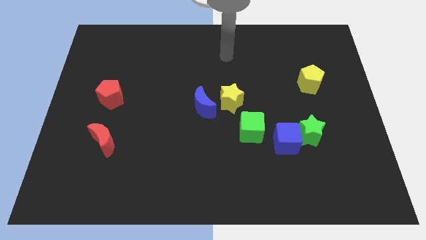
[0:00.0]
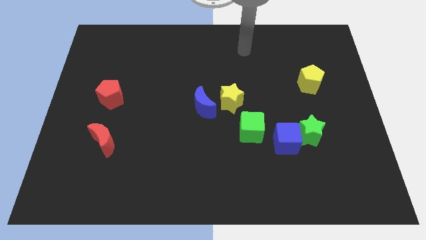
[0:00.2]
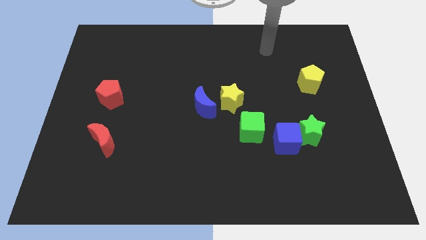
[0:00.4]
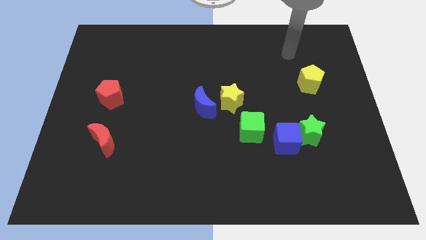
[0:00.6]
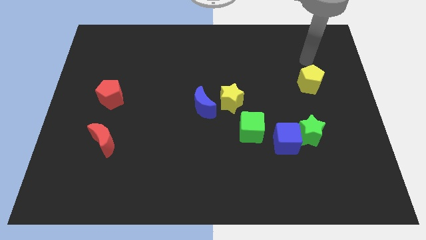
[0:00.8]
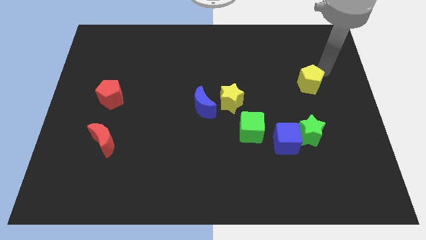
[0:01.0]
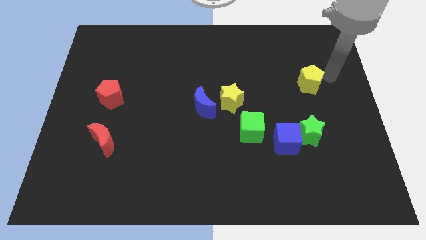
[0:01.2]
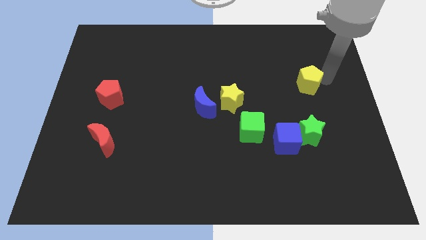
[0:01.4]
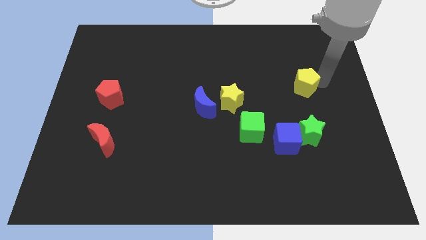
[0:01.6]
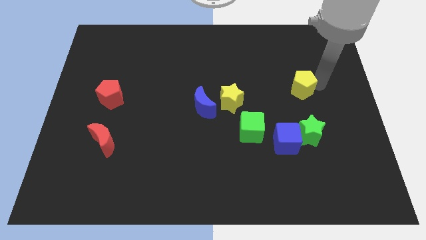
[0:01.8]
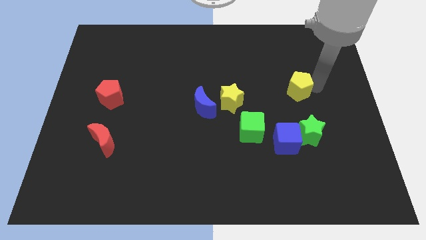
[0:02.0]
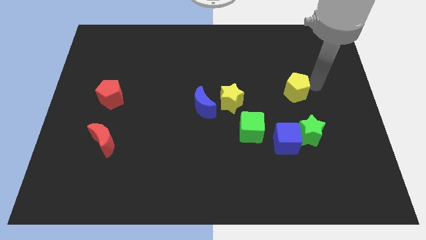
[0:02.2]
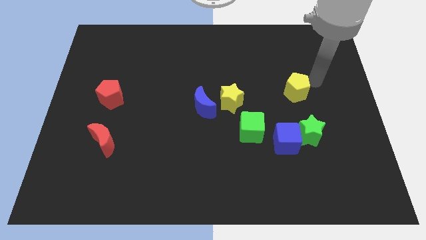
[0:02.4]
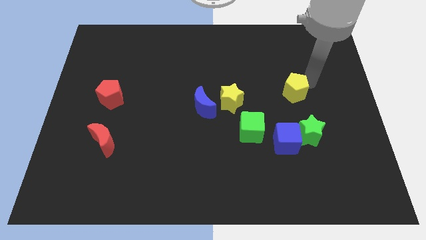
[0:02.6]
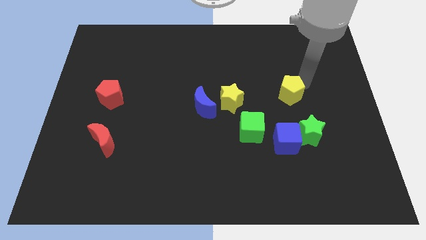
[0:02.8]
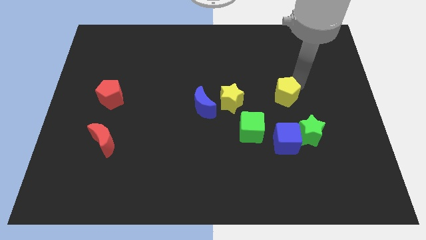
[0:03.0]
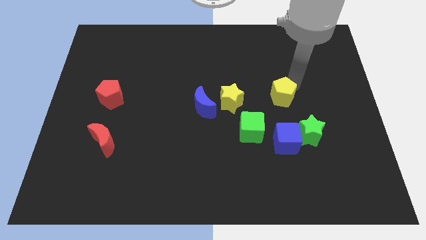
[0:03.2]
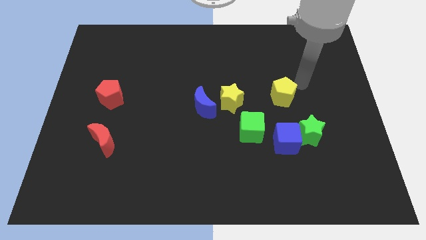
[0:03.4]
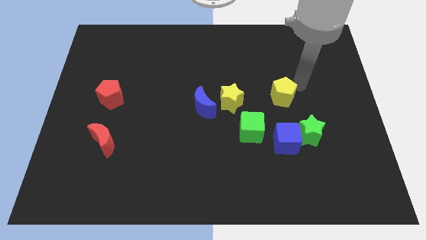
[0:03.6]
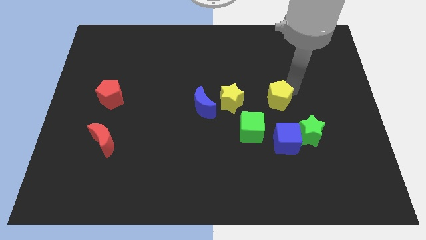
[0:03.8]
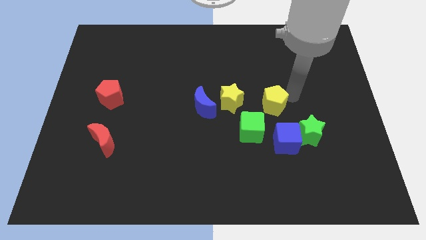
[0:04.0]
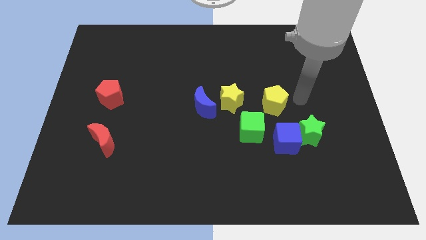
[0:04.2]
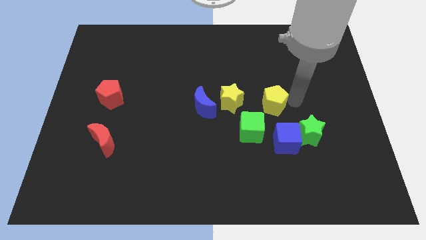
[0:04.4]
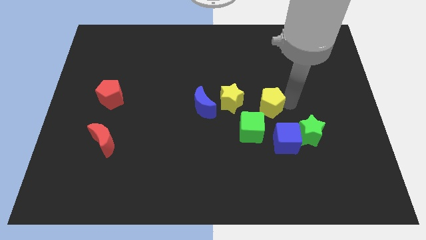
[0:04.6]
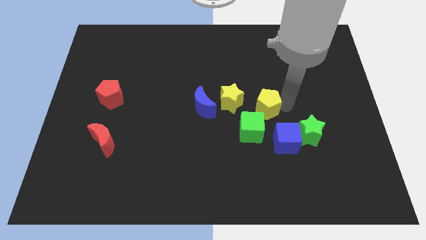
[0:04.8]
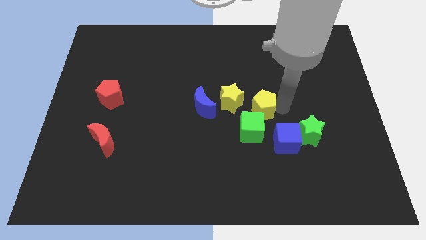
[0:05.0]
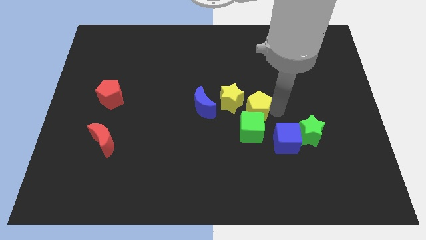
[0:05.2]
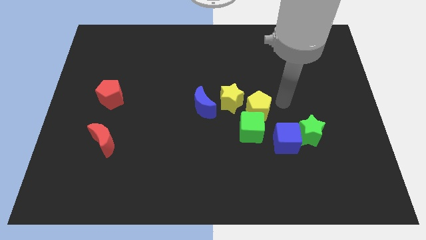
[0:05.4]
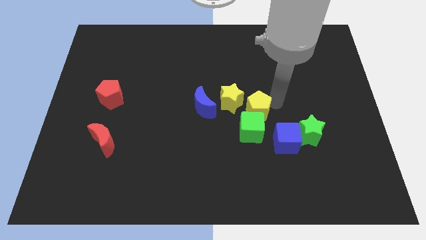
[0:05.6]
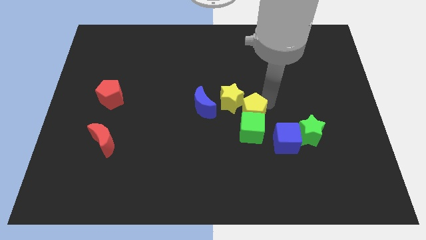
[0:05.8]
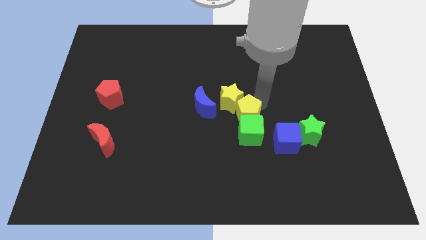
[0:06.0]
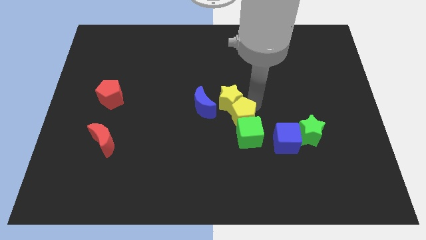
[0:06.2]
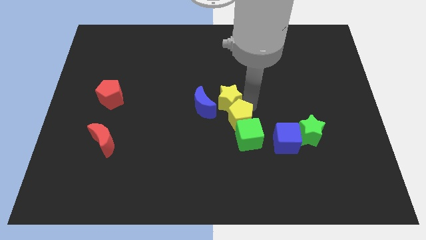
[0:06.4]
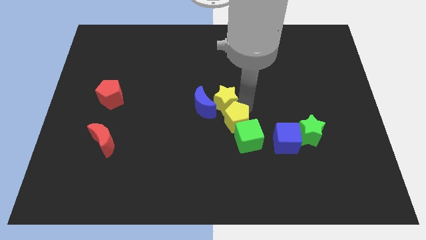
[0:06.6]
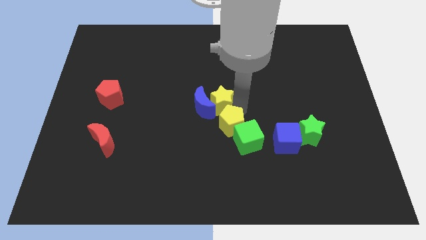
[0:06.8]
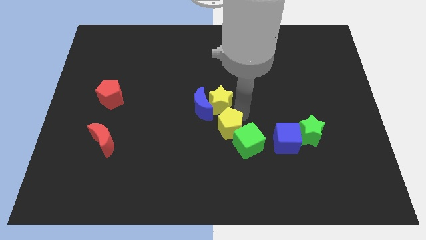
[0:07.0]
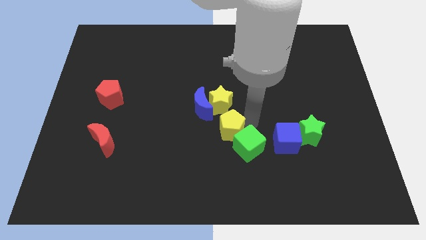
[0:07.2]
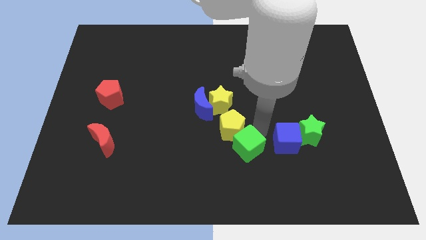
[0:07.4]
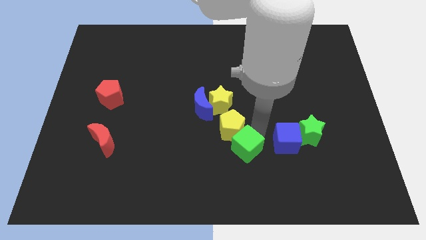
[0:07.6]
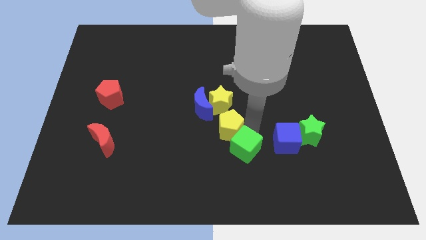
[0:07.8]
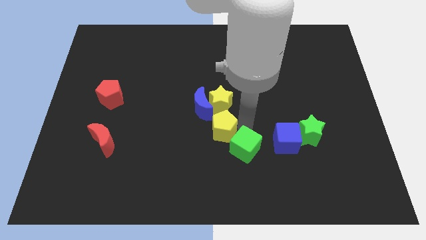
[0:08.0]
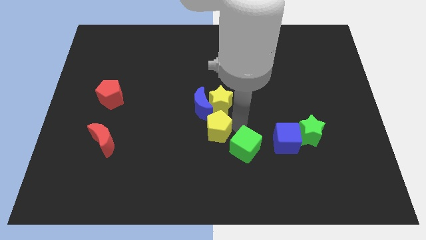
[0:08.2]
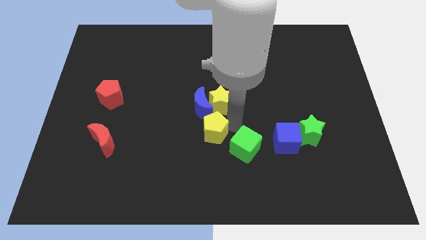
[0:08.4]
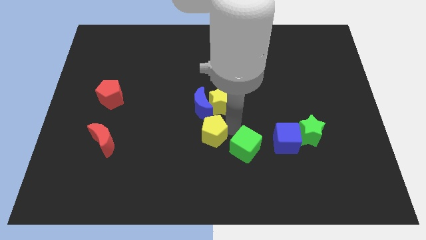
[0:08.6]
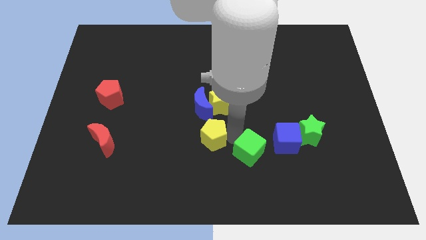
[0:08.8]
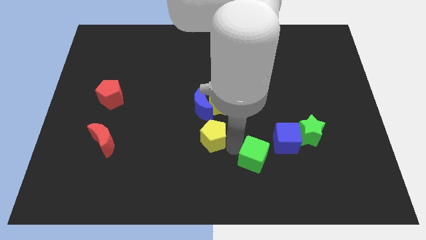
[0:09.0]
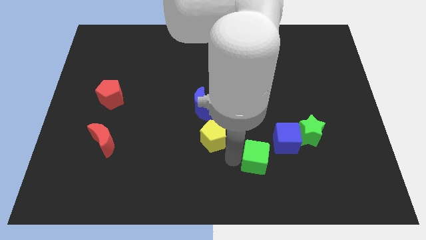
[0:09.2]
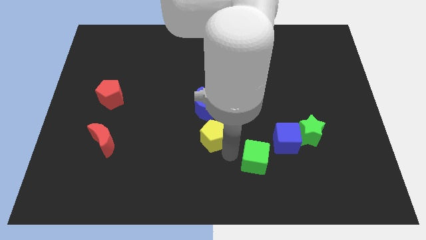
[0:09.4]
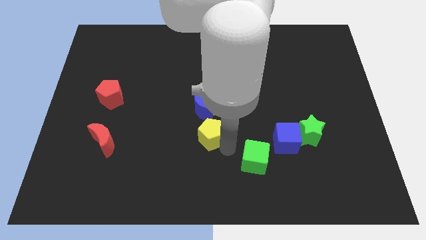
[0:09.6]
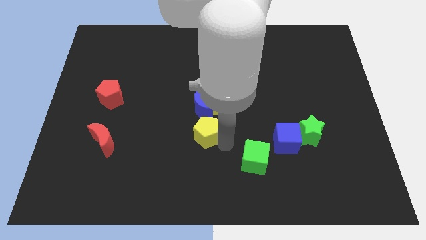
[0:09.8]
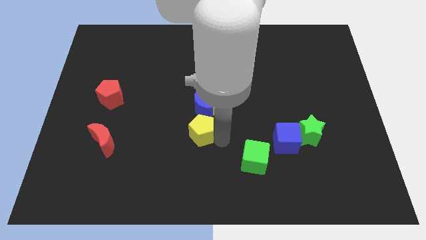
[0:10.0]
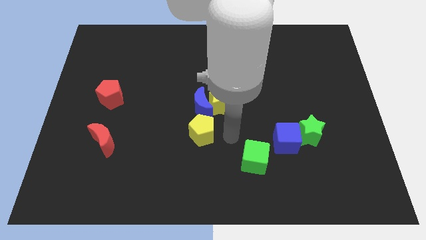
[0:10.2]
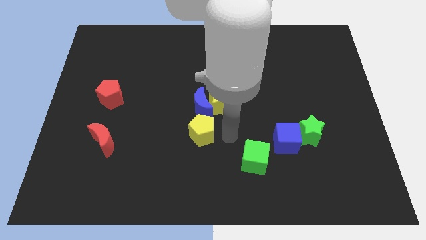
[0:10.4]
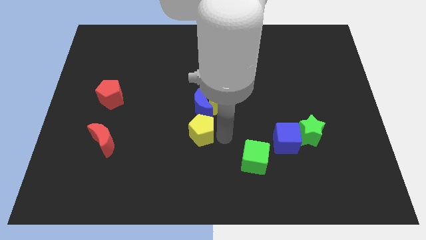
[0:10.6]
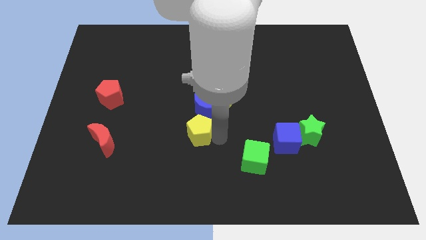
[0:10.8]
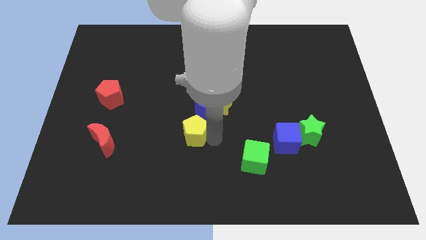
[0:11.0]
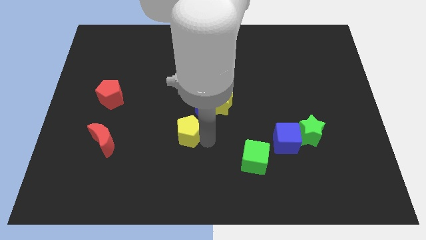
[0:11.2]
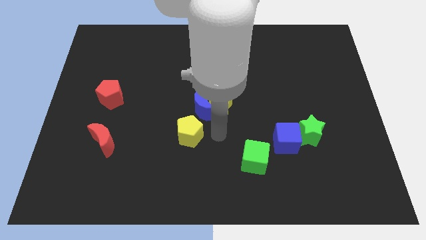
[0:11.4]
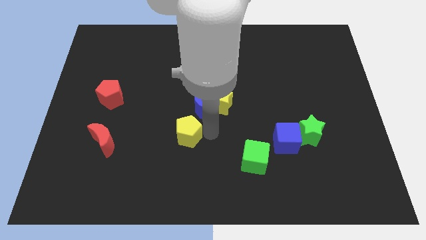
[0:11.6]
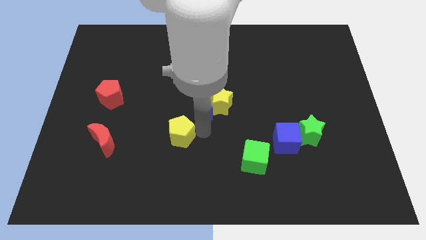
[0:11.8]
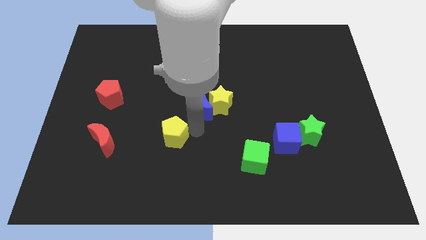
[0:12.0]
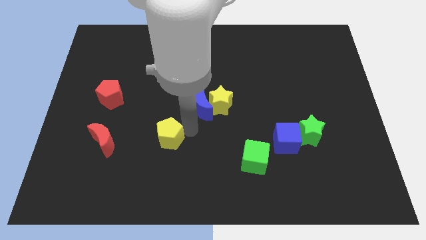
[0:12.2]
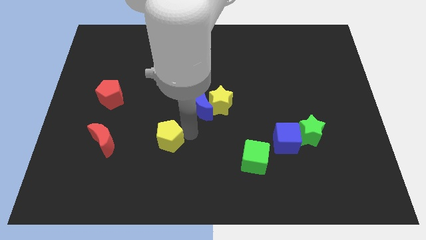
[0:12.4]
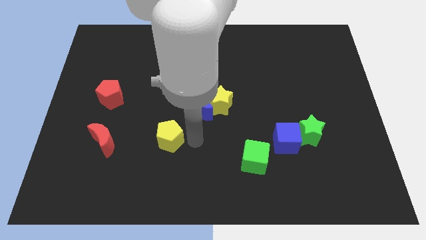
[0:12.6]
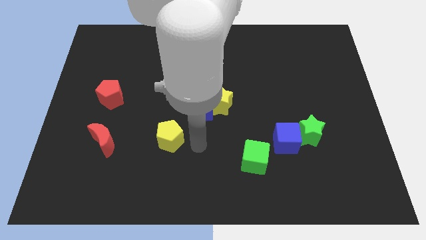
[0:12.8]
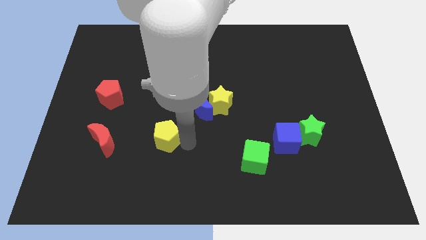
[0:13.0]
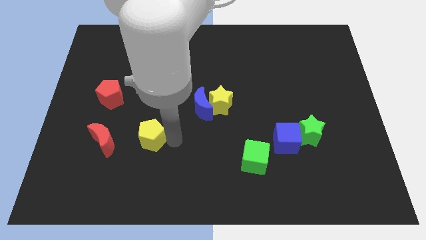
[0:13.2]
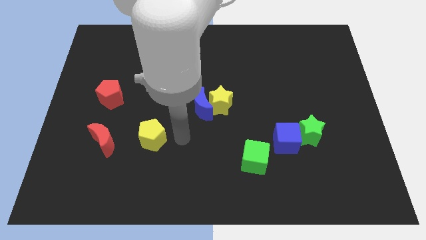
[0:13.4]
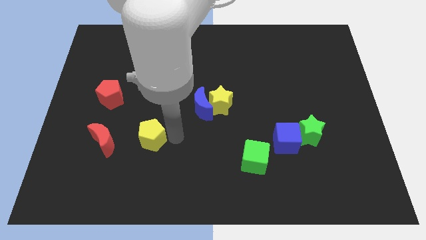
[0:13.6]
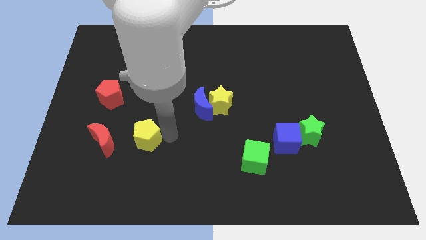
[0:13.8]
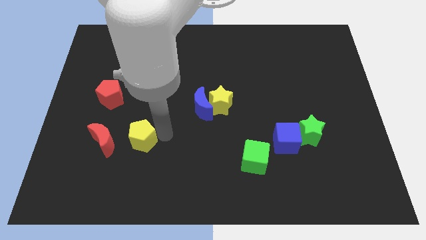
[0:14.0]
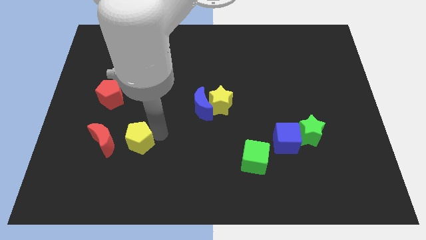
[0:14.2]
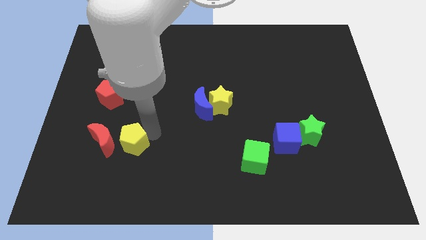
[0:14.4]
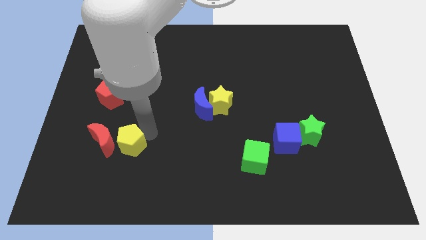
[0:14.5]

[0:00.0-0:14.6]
move the yellow pentagon to the red moon
